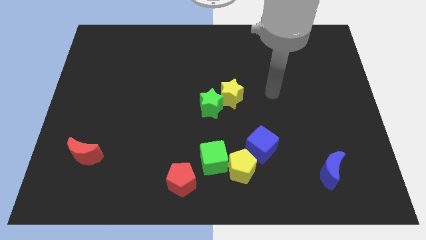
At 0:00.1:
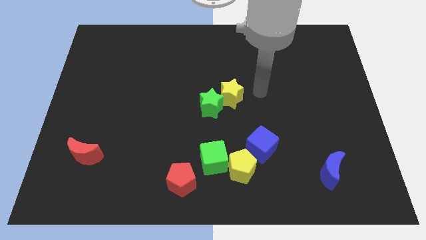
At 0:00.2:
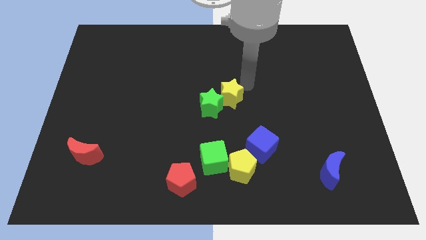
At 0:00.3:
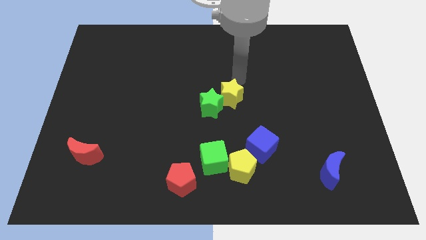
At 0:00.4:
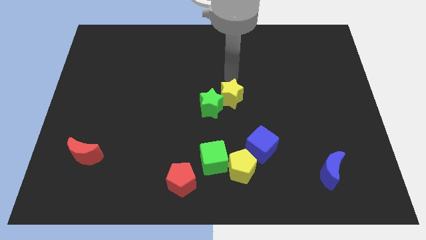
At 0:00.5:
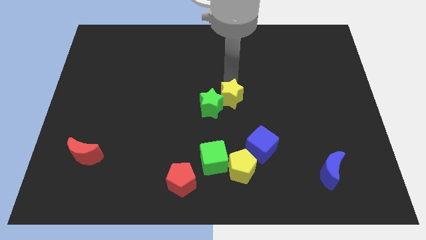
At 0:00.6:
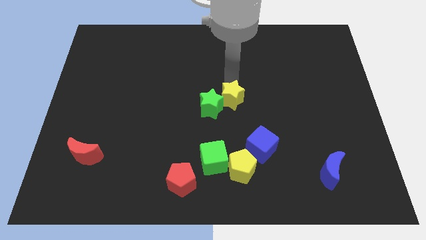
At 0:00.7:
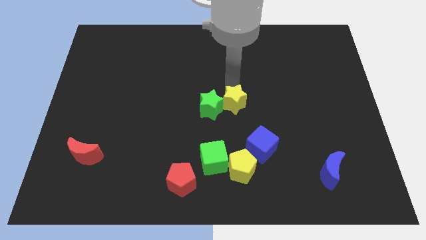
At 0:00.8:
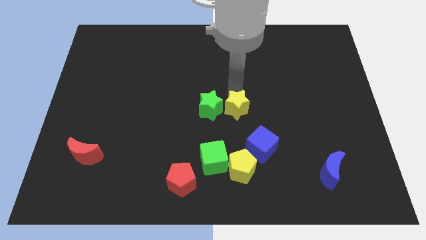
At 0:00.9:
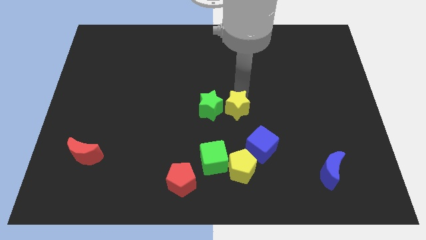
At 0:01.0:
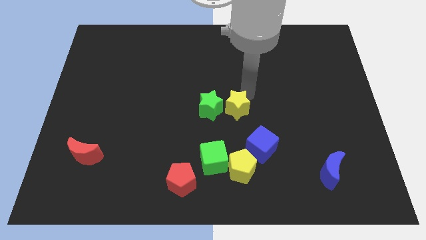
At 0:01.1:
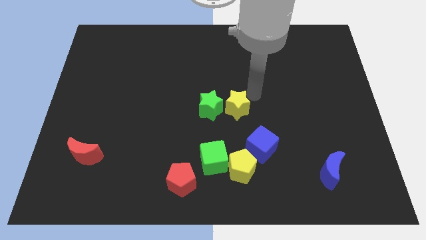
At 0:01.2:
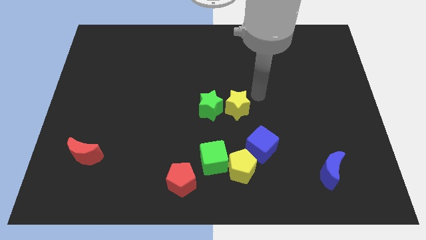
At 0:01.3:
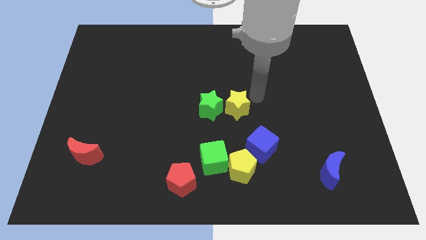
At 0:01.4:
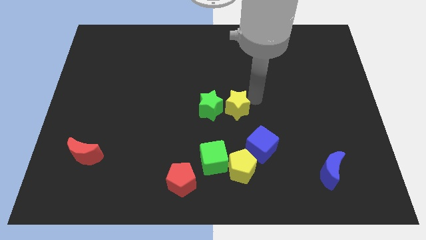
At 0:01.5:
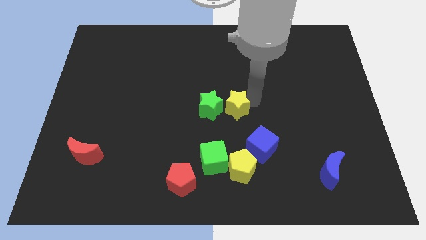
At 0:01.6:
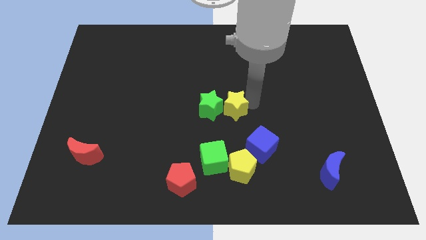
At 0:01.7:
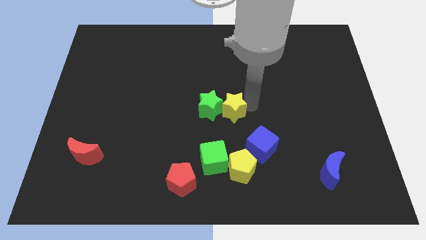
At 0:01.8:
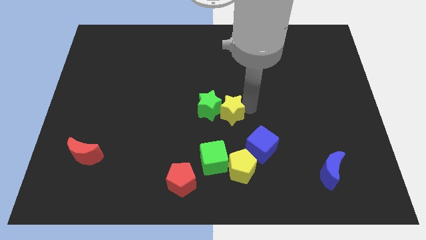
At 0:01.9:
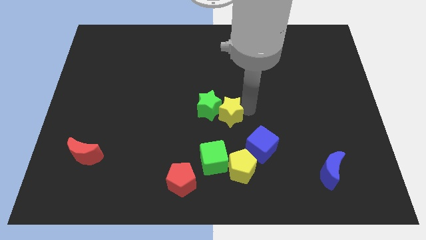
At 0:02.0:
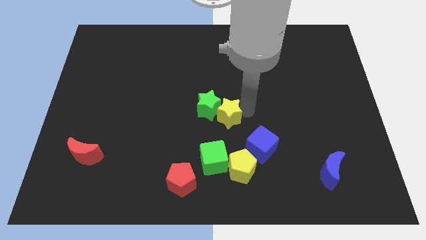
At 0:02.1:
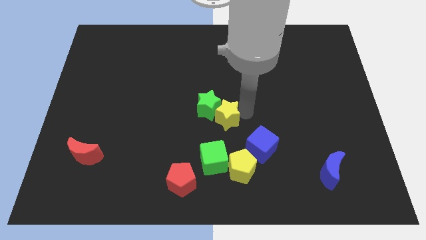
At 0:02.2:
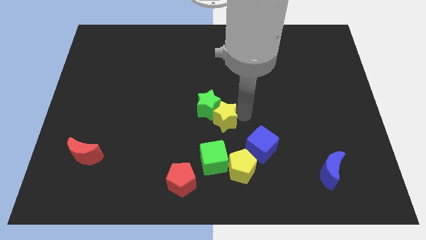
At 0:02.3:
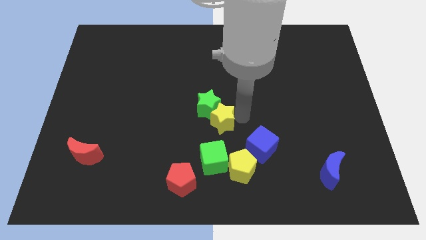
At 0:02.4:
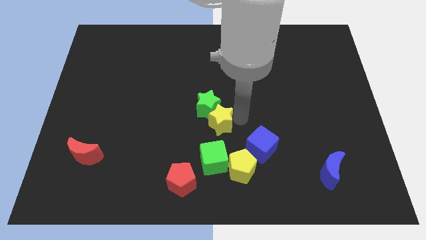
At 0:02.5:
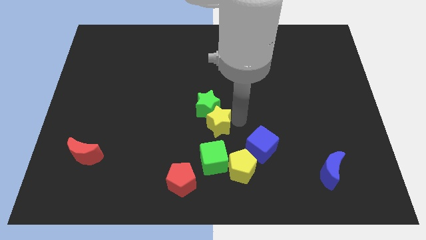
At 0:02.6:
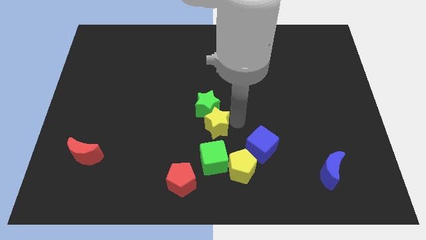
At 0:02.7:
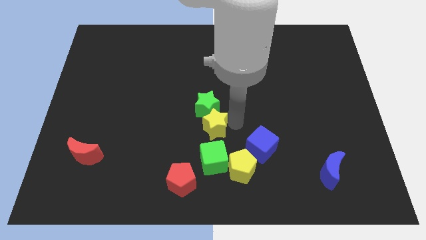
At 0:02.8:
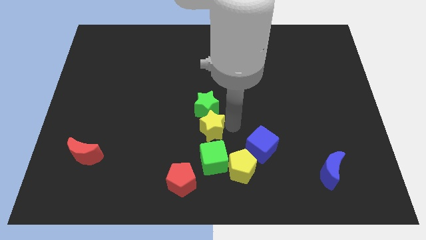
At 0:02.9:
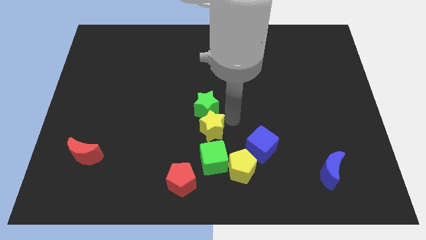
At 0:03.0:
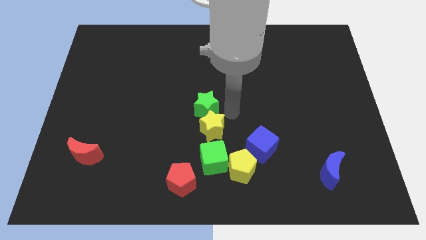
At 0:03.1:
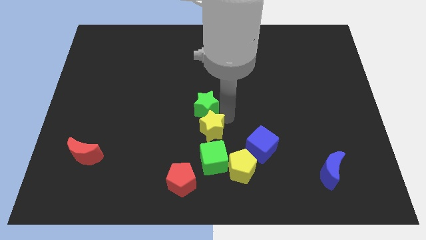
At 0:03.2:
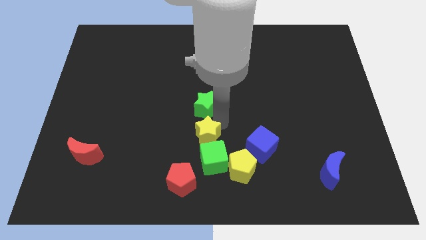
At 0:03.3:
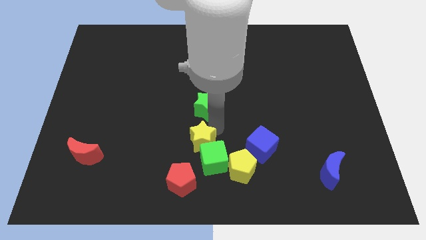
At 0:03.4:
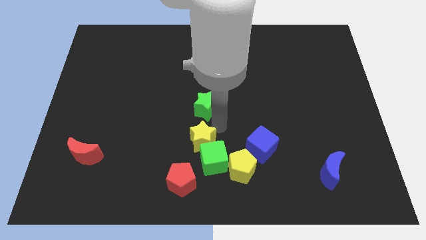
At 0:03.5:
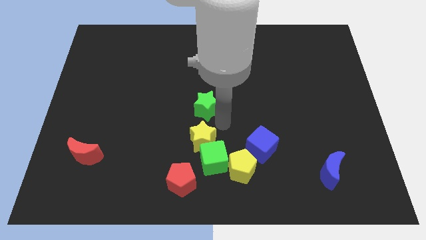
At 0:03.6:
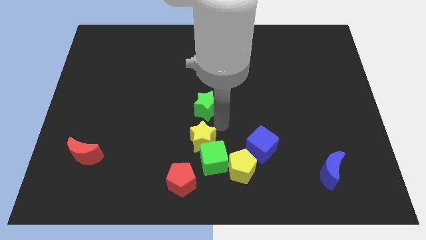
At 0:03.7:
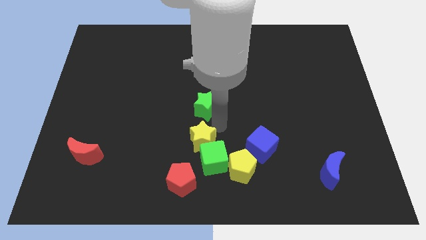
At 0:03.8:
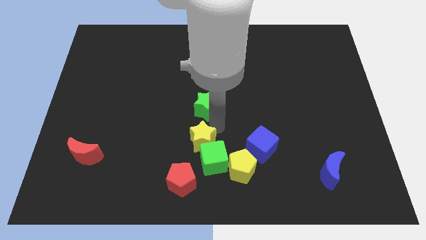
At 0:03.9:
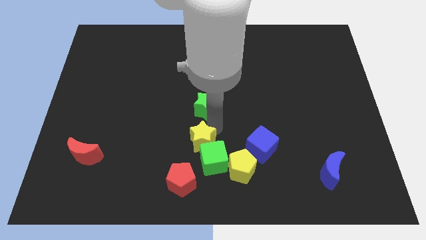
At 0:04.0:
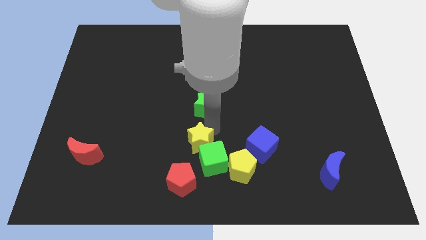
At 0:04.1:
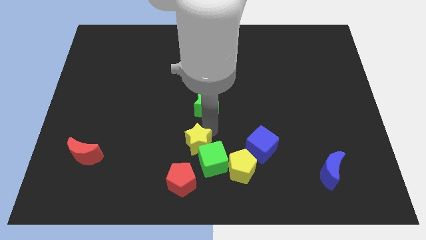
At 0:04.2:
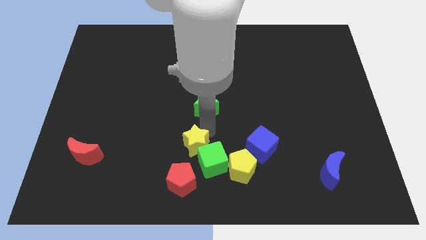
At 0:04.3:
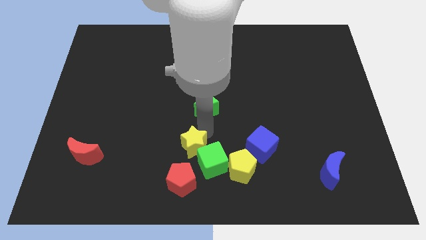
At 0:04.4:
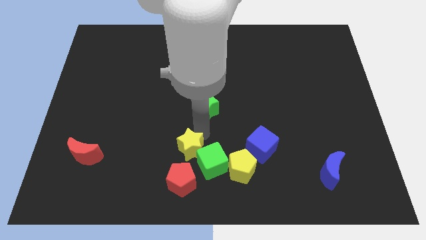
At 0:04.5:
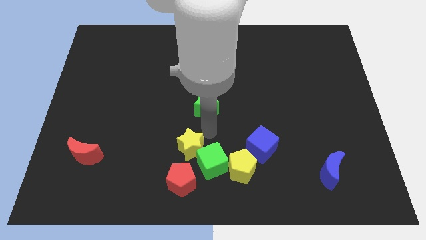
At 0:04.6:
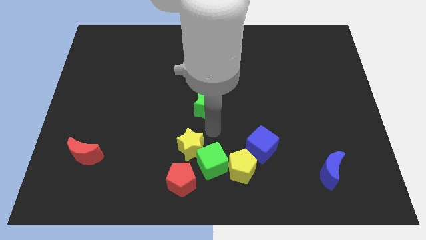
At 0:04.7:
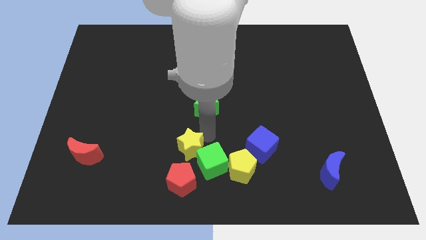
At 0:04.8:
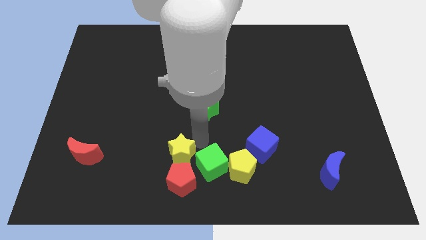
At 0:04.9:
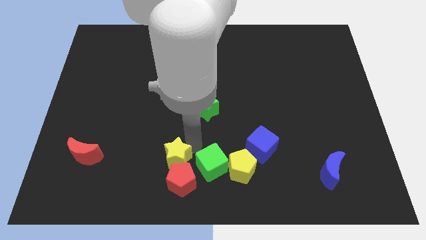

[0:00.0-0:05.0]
move the yellow star downwards and left

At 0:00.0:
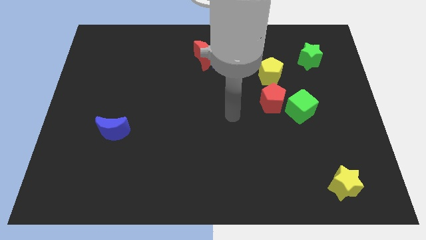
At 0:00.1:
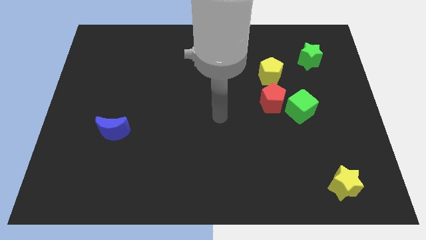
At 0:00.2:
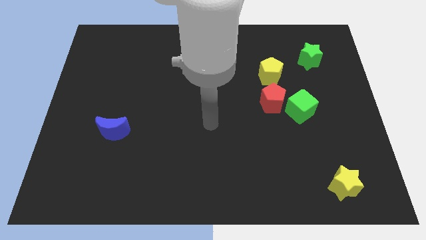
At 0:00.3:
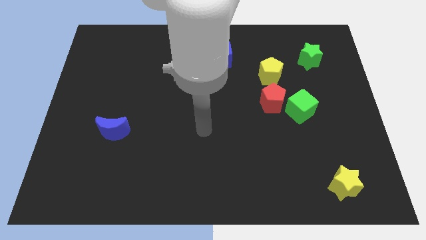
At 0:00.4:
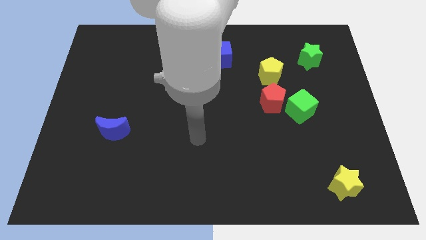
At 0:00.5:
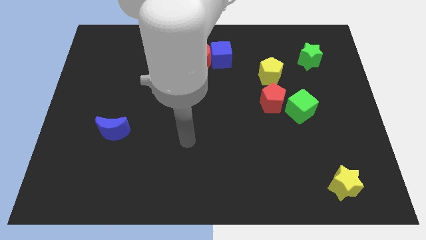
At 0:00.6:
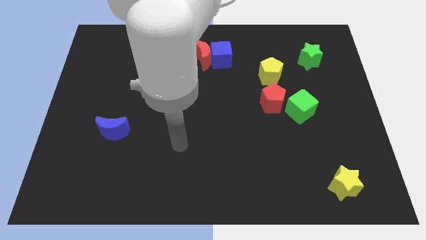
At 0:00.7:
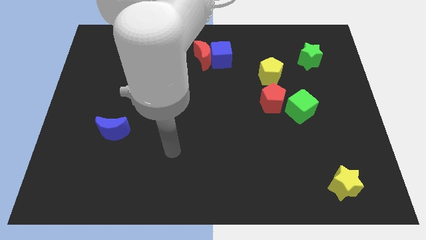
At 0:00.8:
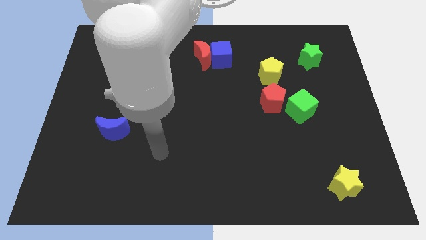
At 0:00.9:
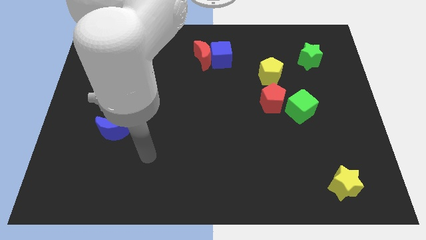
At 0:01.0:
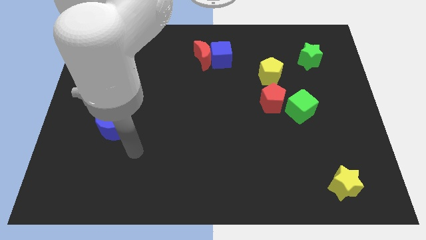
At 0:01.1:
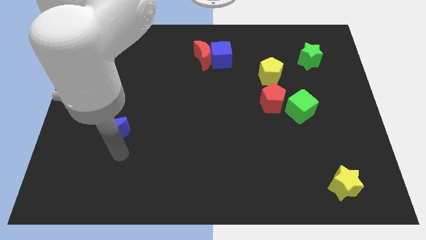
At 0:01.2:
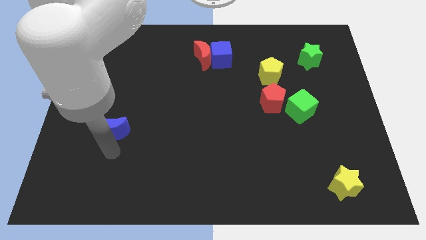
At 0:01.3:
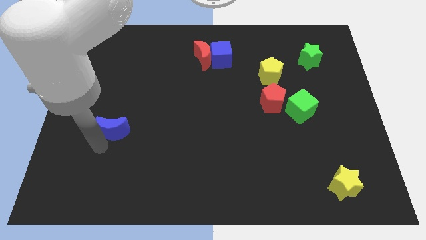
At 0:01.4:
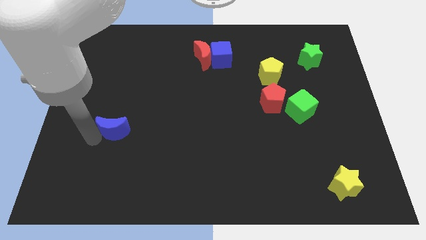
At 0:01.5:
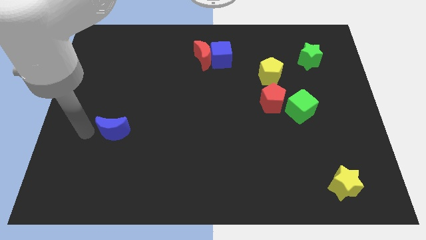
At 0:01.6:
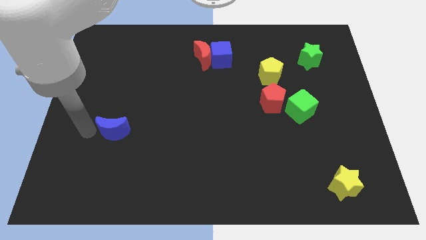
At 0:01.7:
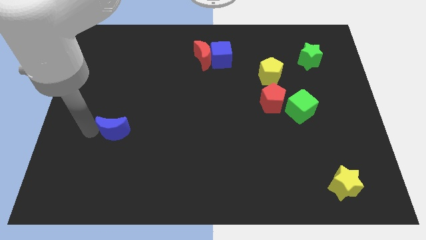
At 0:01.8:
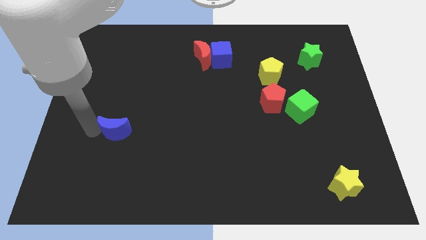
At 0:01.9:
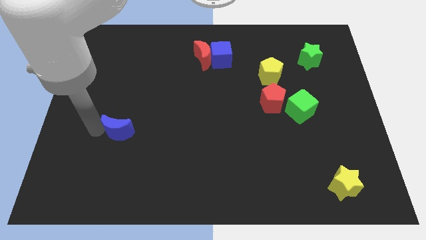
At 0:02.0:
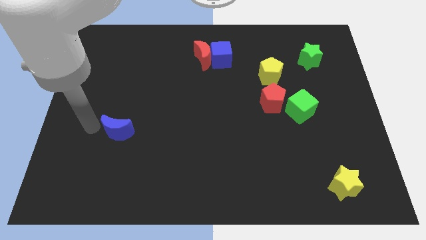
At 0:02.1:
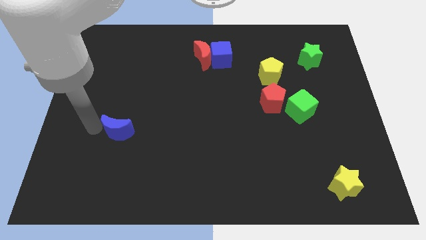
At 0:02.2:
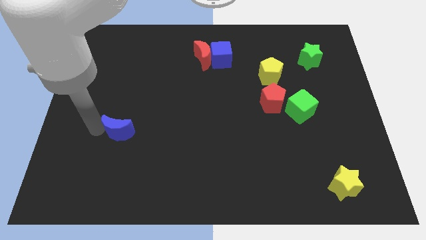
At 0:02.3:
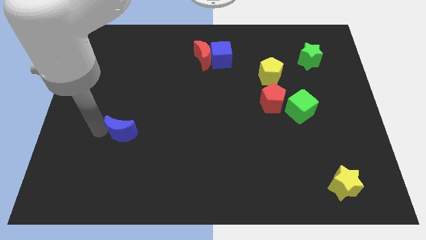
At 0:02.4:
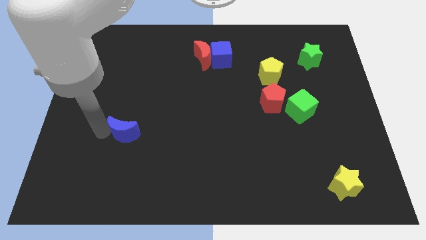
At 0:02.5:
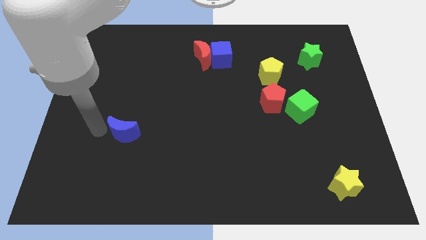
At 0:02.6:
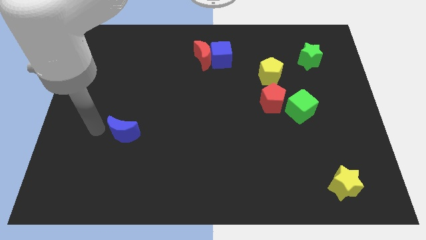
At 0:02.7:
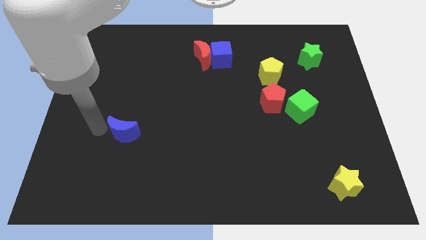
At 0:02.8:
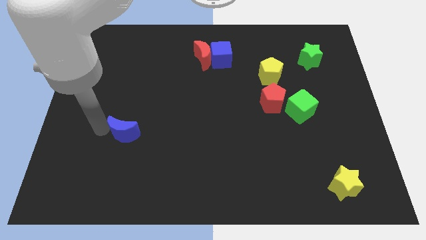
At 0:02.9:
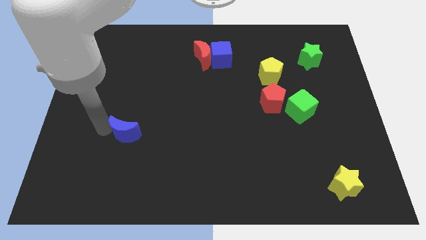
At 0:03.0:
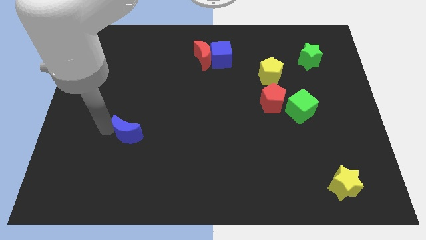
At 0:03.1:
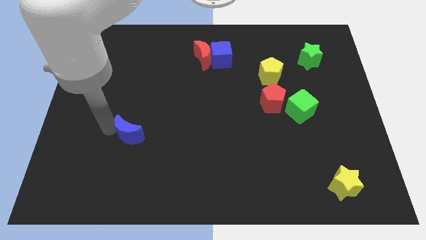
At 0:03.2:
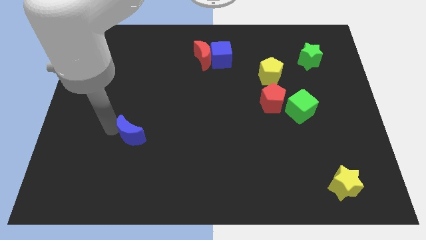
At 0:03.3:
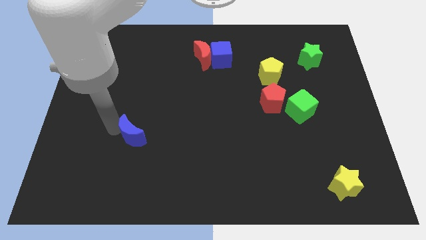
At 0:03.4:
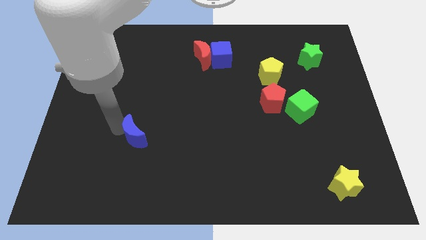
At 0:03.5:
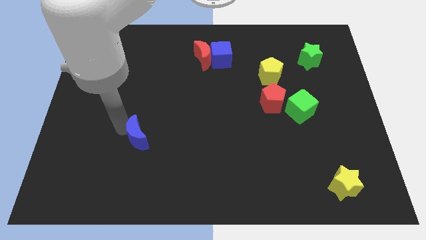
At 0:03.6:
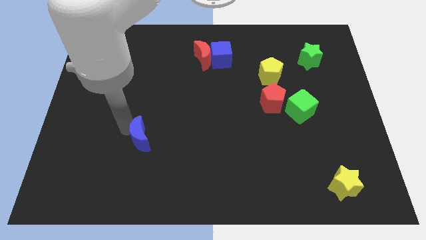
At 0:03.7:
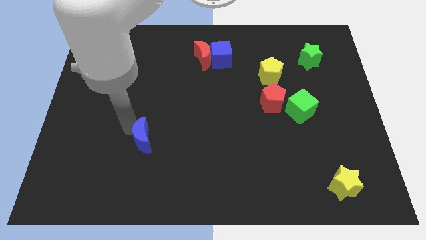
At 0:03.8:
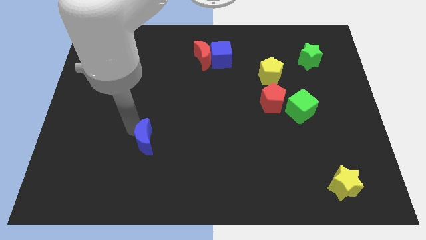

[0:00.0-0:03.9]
slide the blue moon a little to the right
